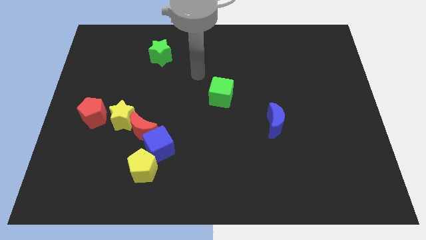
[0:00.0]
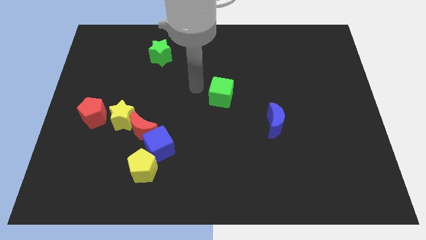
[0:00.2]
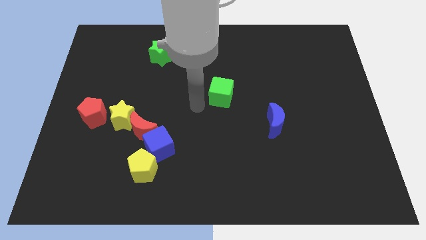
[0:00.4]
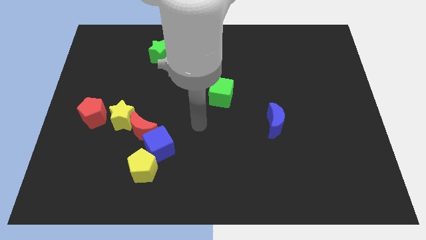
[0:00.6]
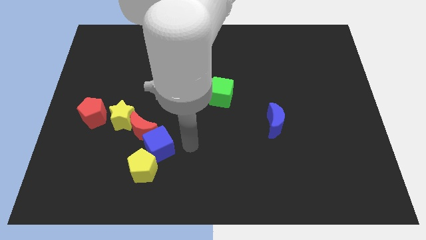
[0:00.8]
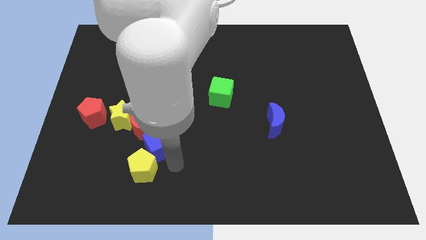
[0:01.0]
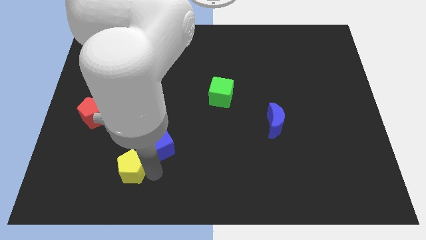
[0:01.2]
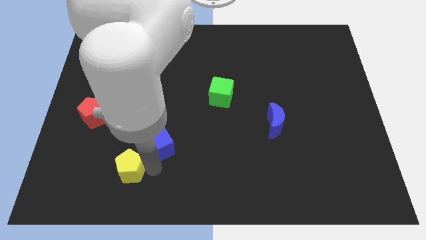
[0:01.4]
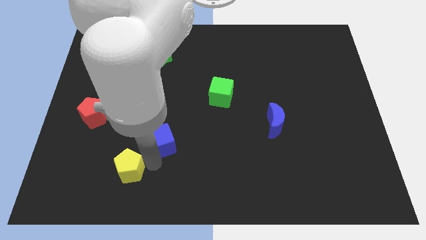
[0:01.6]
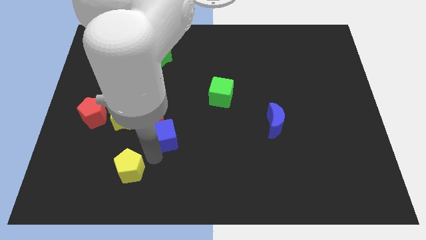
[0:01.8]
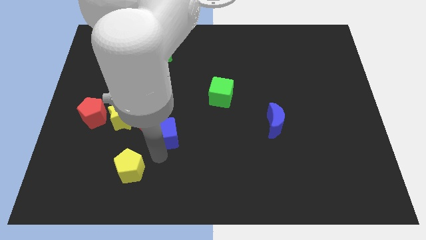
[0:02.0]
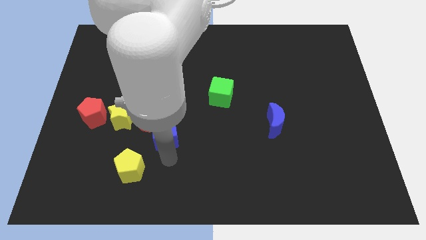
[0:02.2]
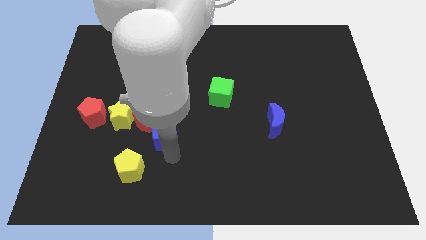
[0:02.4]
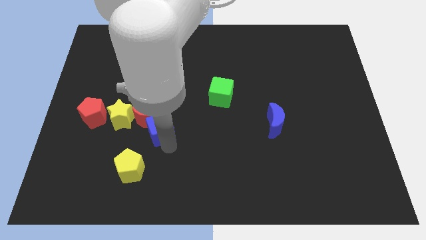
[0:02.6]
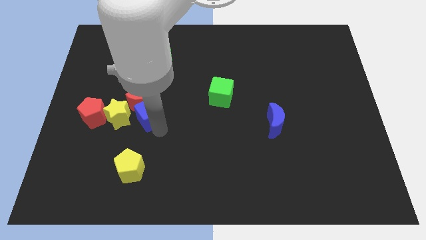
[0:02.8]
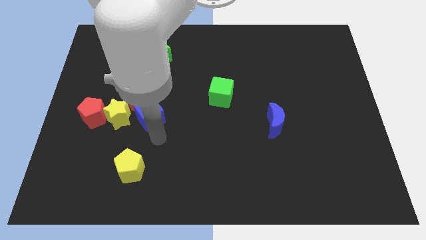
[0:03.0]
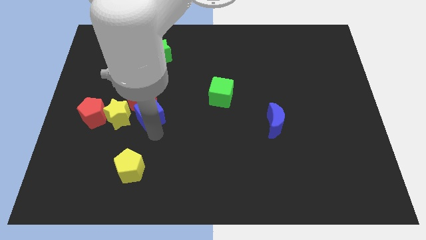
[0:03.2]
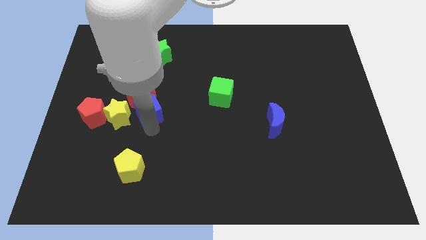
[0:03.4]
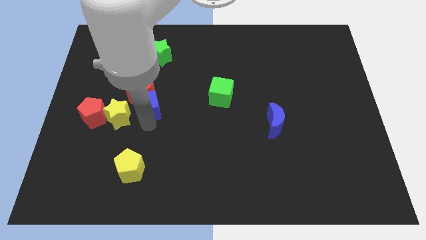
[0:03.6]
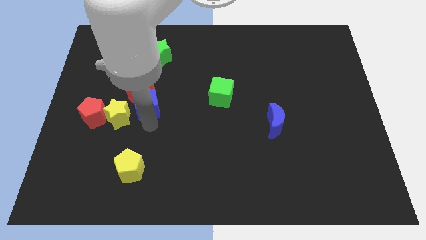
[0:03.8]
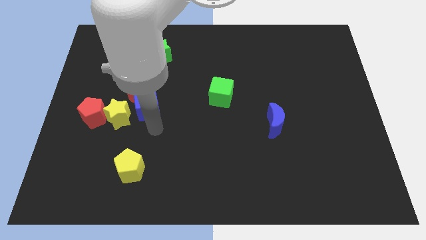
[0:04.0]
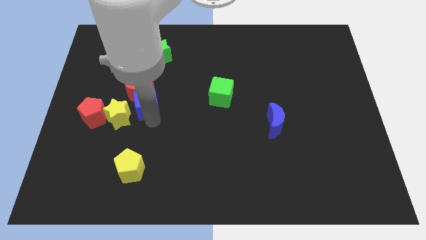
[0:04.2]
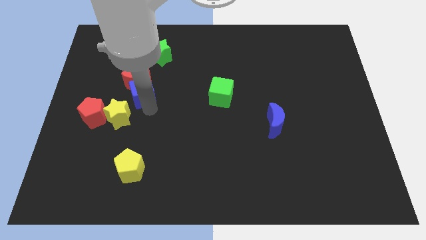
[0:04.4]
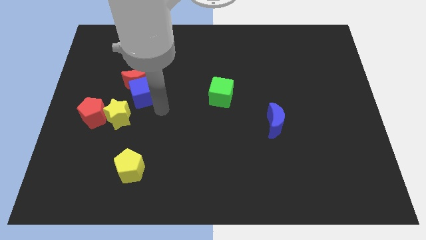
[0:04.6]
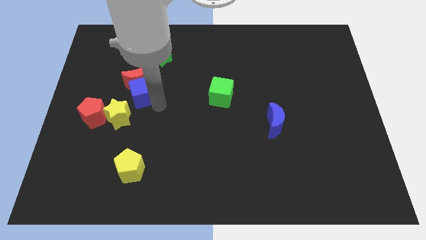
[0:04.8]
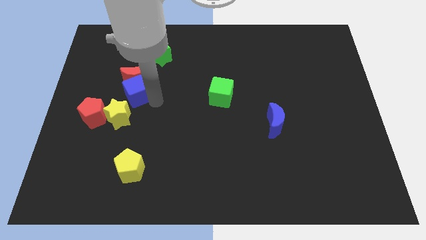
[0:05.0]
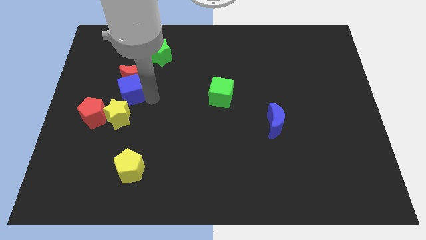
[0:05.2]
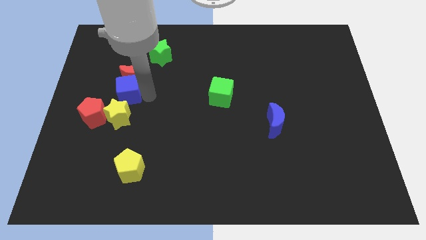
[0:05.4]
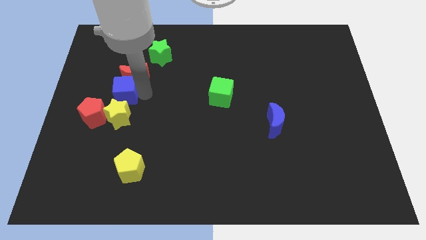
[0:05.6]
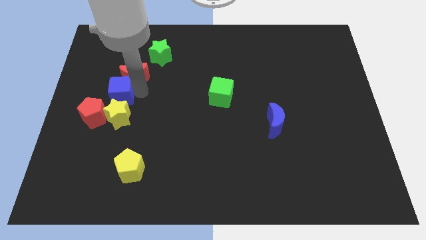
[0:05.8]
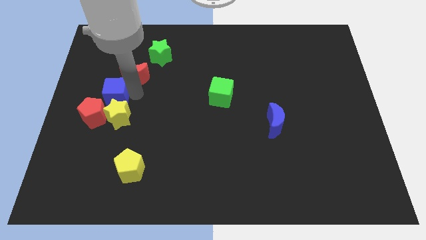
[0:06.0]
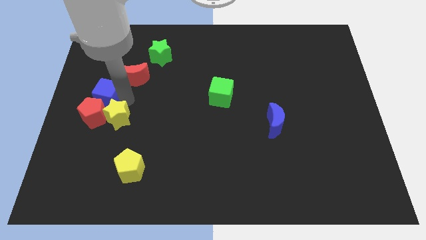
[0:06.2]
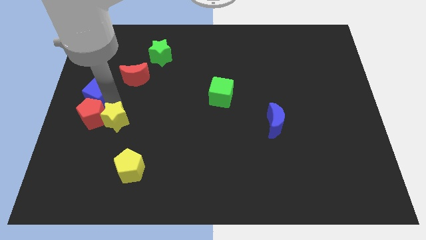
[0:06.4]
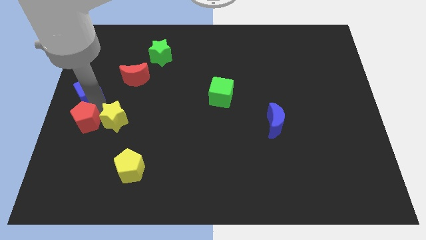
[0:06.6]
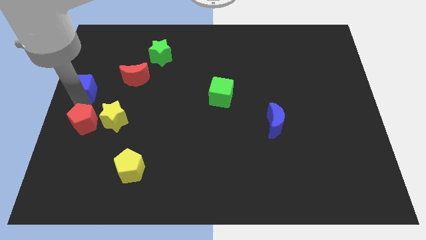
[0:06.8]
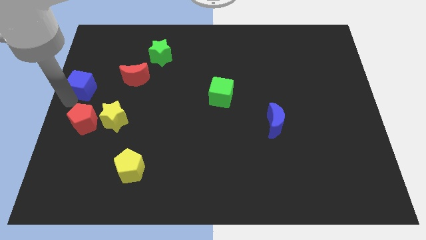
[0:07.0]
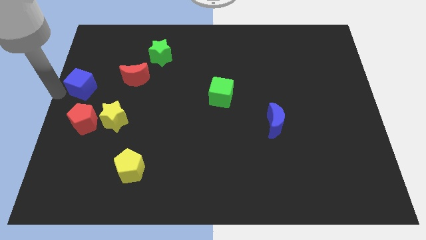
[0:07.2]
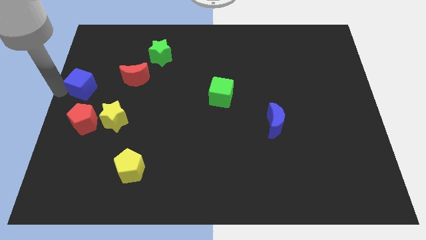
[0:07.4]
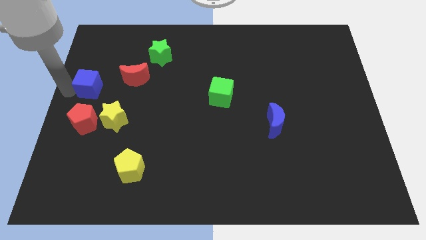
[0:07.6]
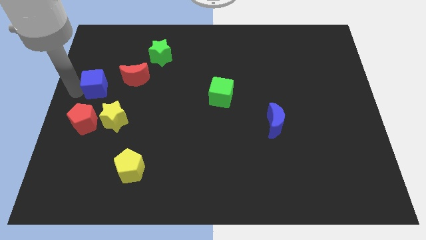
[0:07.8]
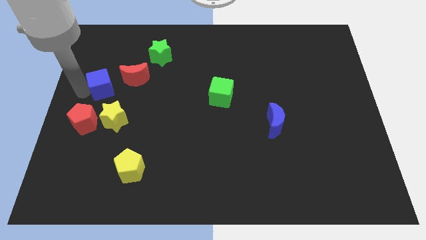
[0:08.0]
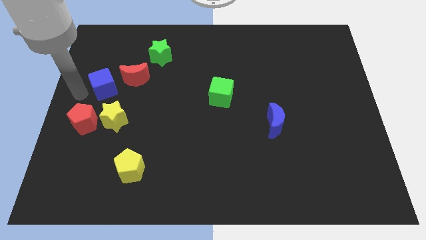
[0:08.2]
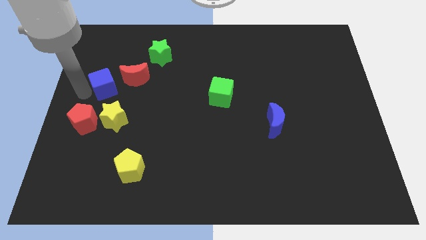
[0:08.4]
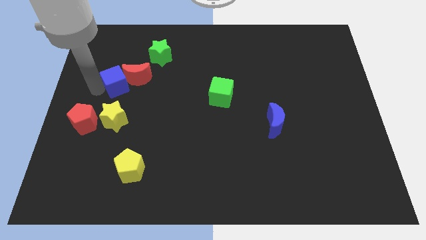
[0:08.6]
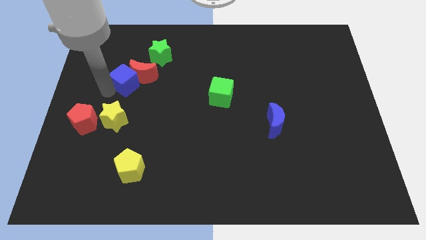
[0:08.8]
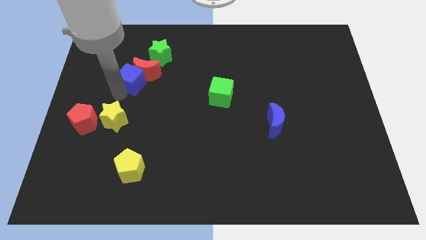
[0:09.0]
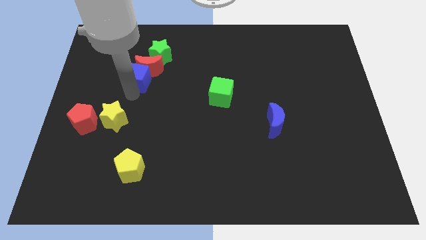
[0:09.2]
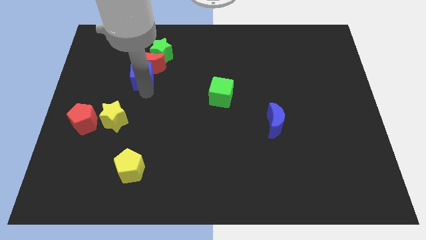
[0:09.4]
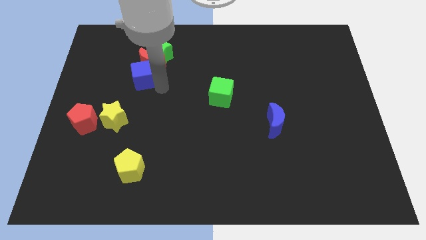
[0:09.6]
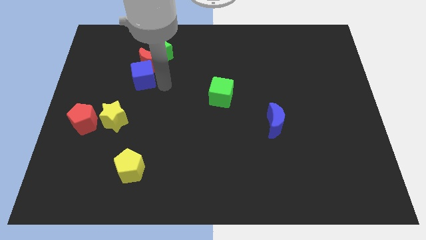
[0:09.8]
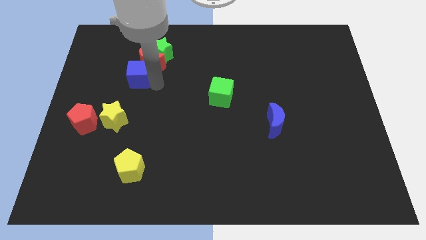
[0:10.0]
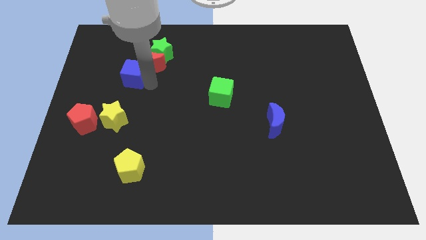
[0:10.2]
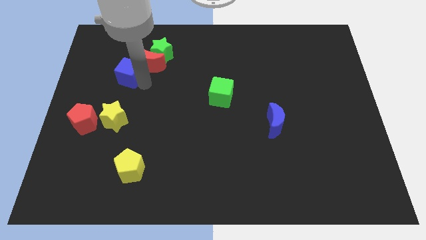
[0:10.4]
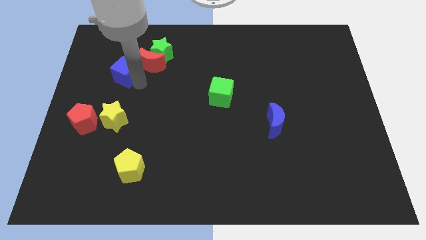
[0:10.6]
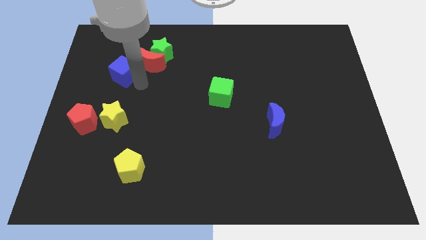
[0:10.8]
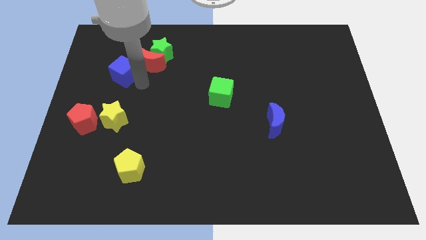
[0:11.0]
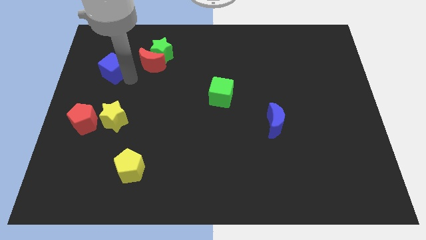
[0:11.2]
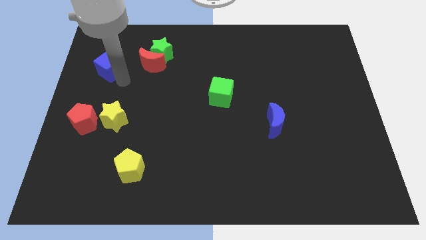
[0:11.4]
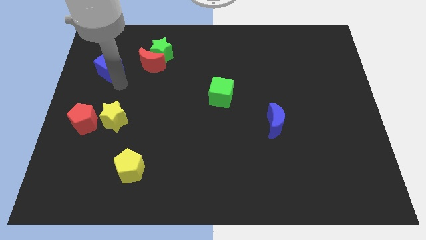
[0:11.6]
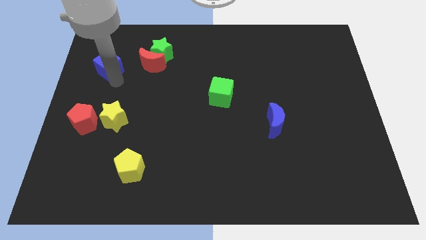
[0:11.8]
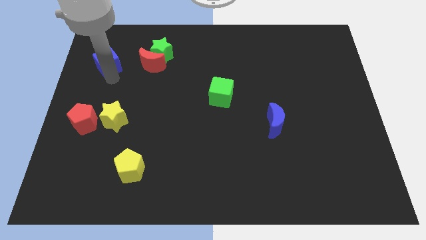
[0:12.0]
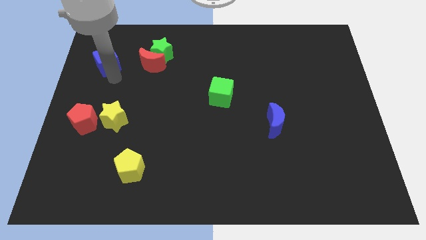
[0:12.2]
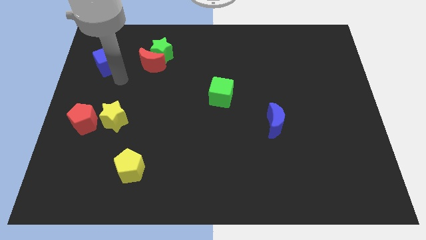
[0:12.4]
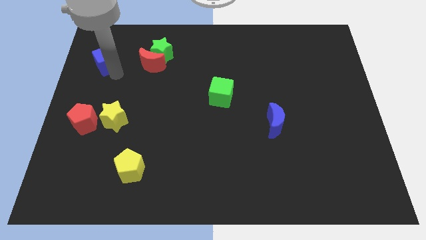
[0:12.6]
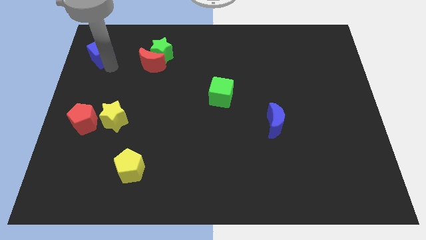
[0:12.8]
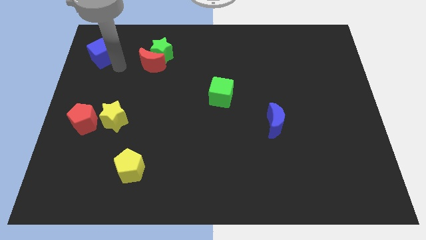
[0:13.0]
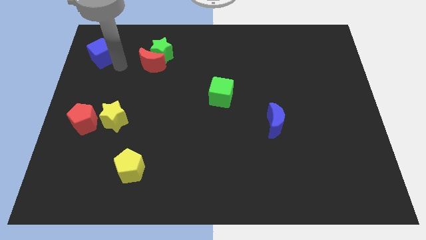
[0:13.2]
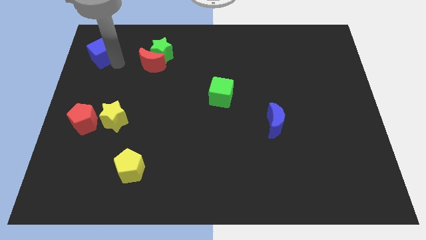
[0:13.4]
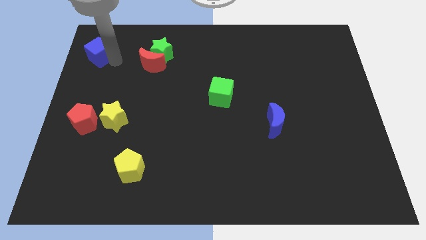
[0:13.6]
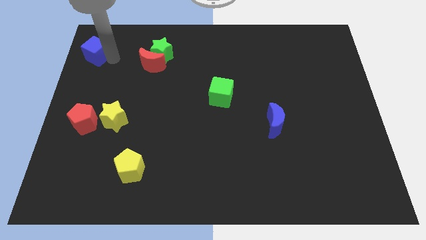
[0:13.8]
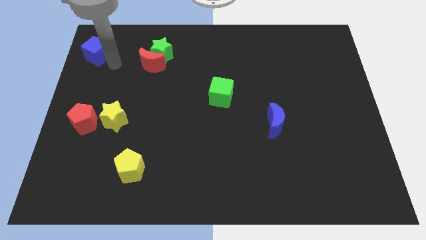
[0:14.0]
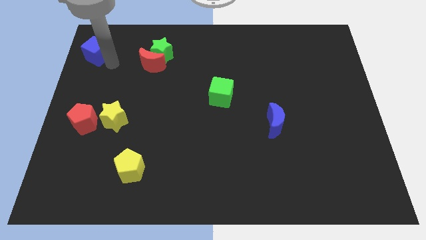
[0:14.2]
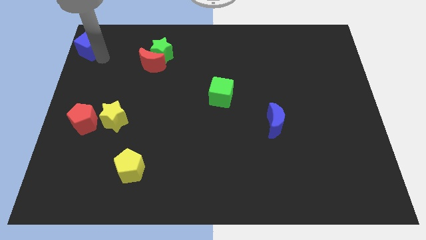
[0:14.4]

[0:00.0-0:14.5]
move the blue cube to the top left of the board
